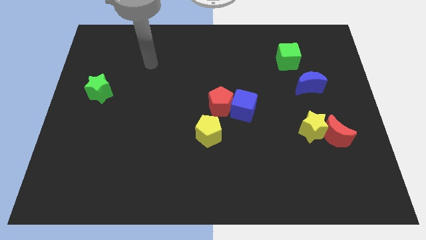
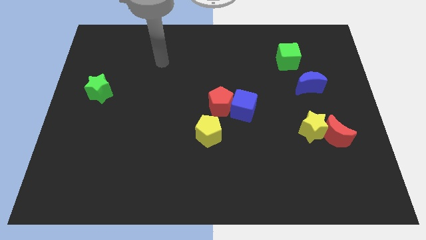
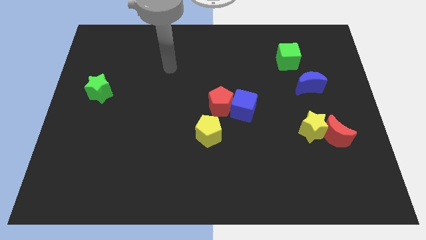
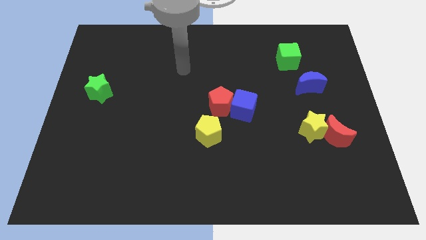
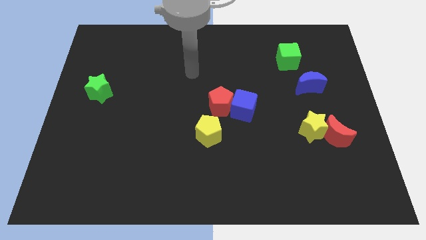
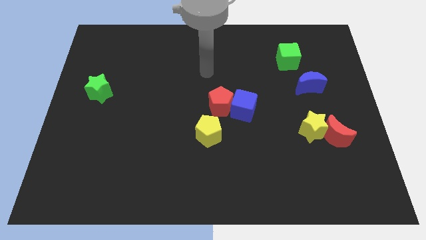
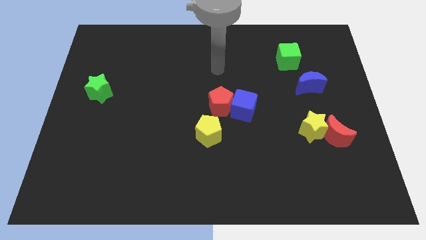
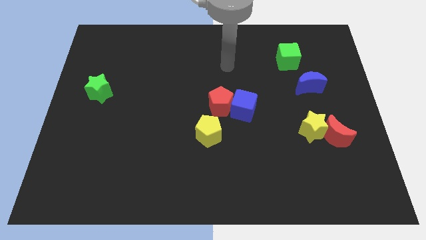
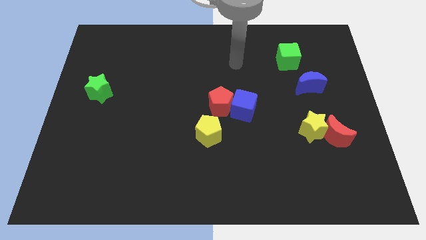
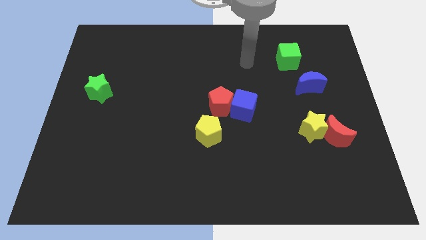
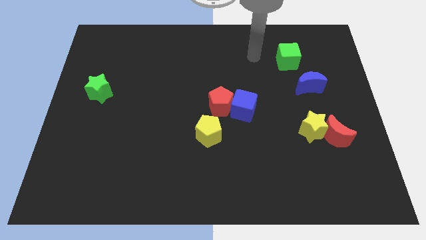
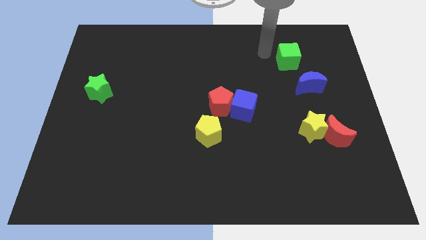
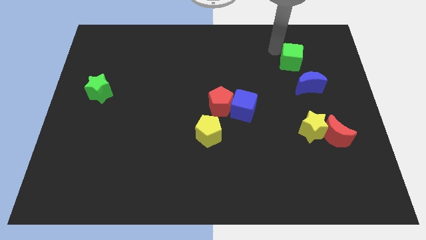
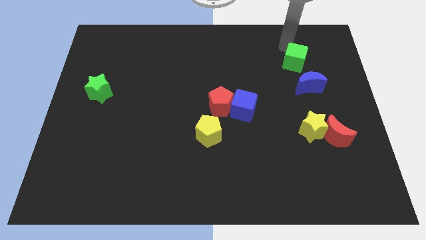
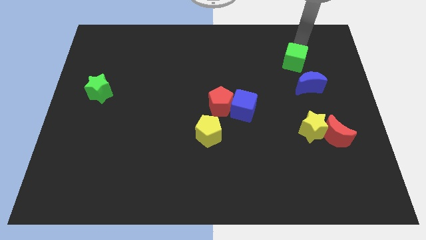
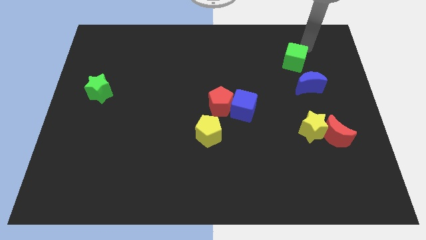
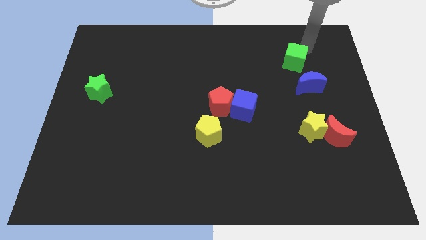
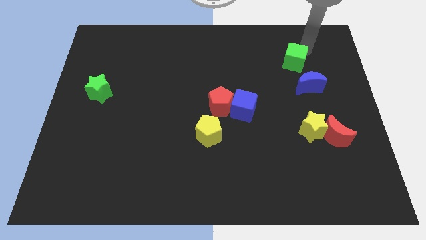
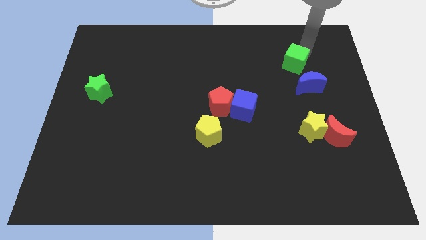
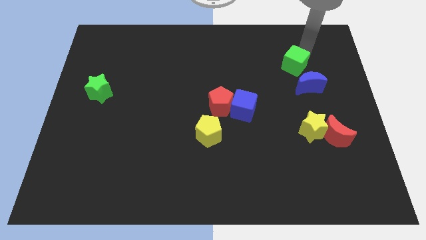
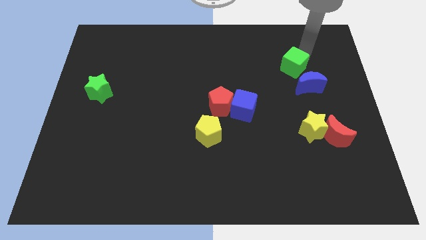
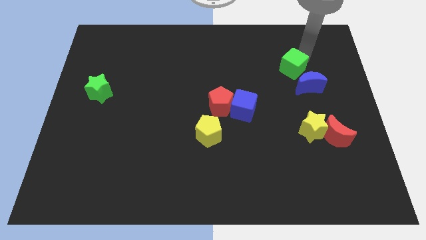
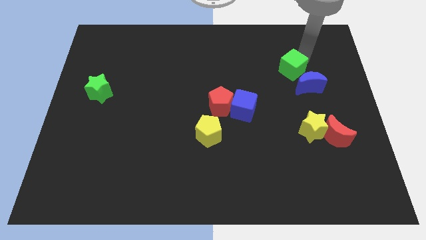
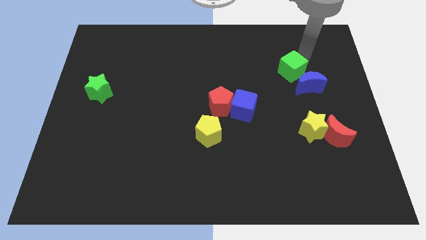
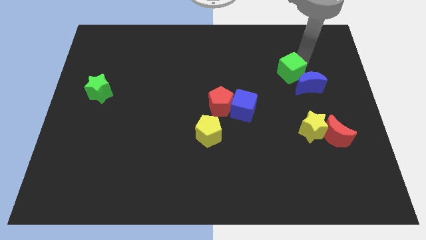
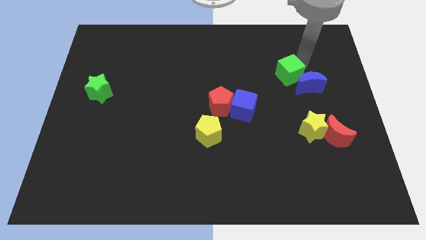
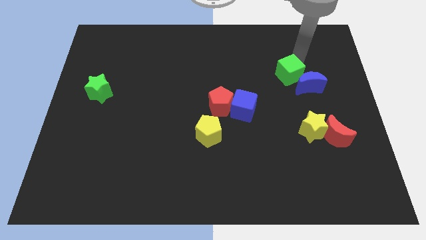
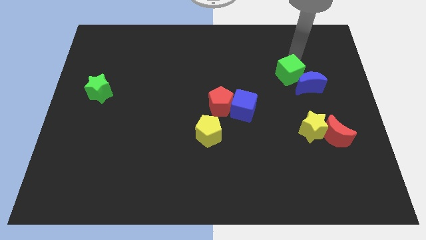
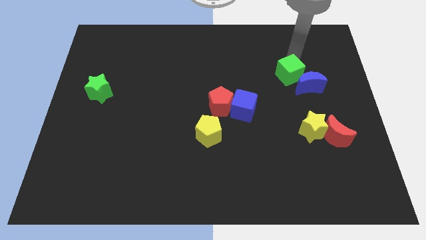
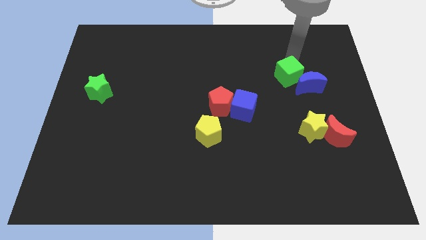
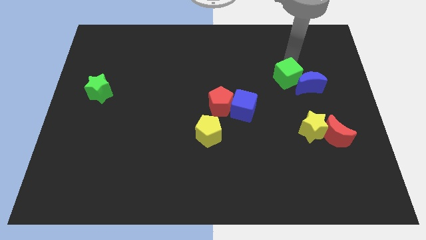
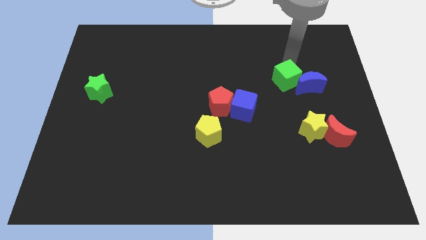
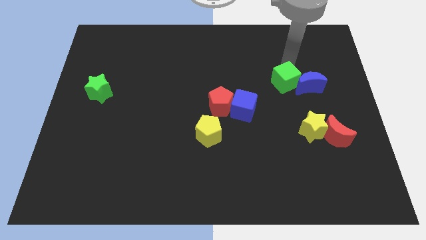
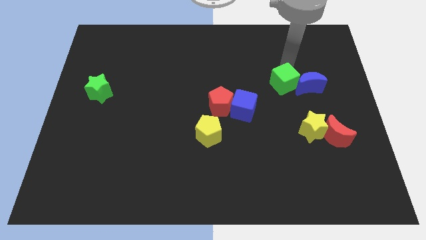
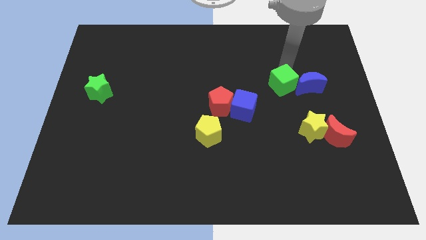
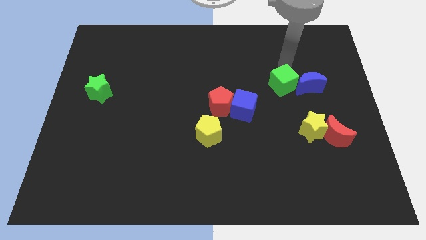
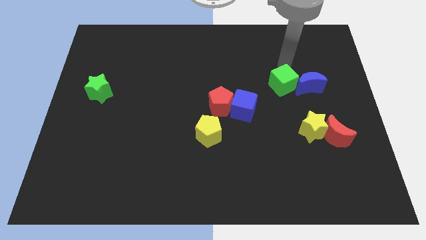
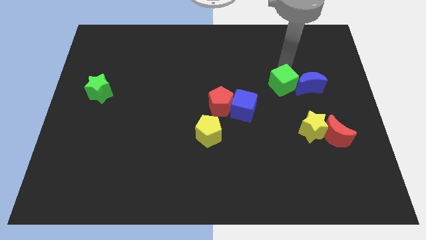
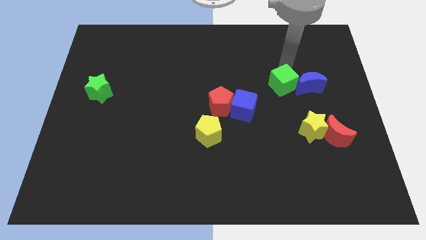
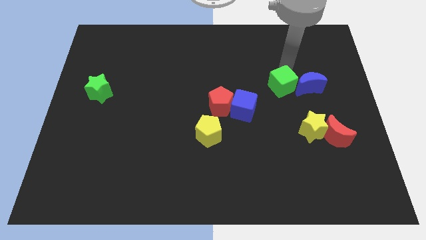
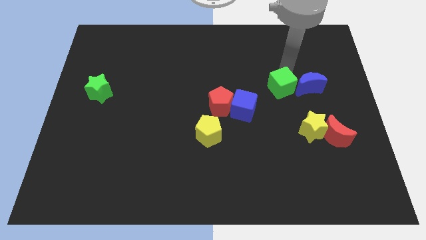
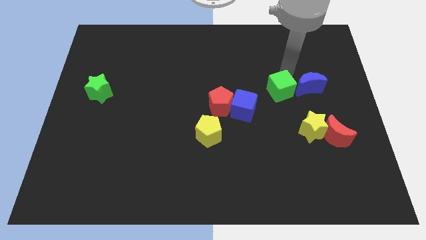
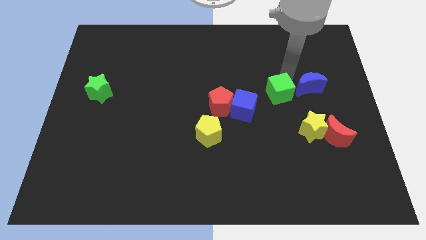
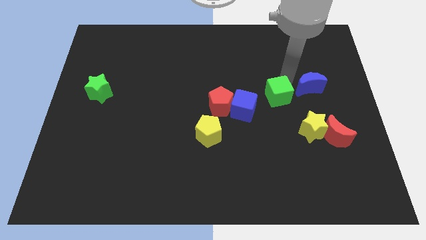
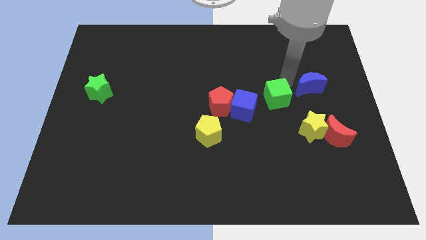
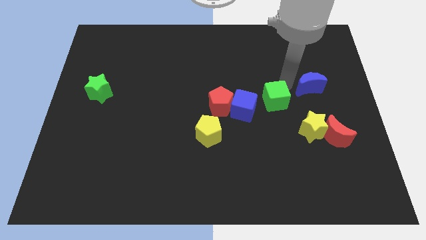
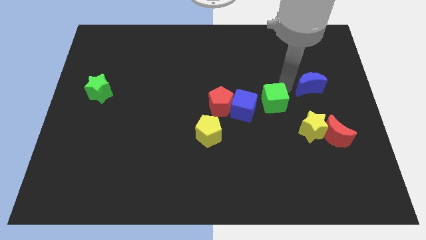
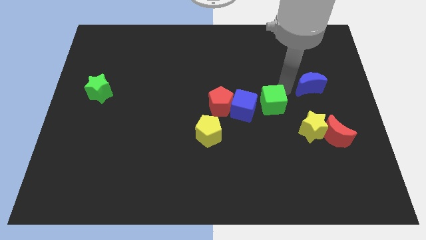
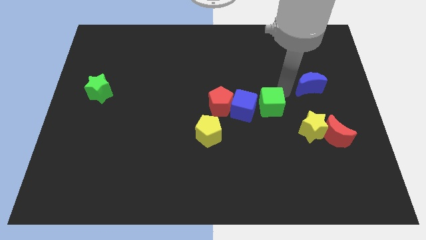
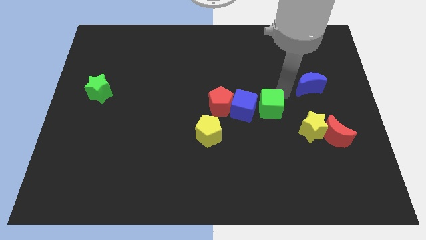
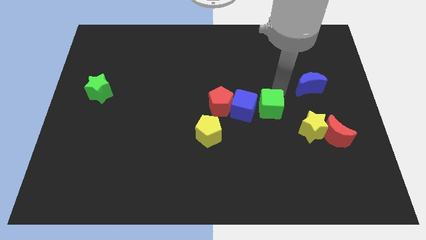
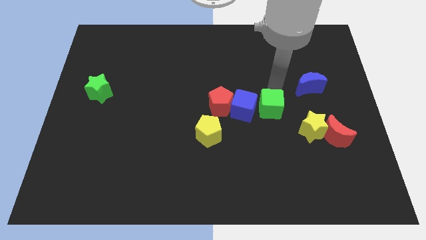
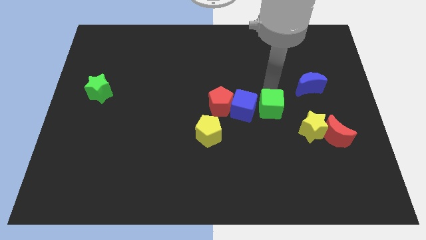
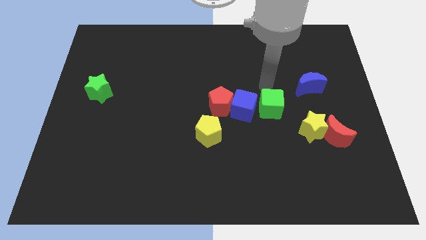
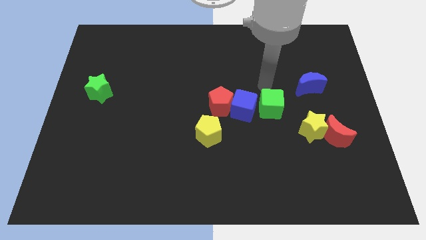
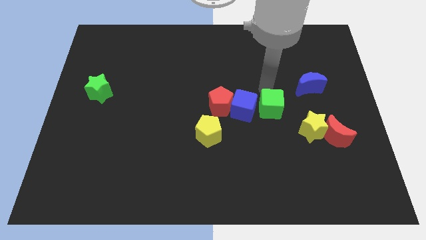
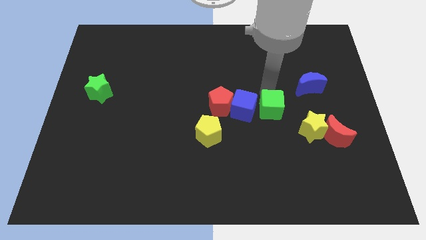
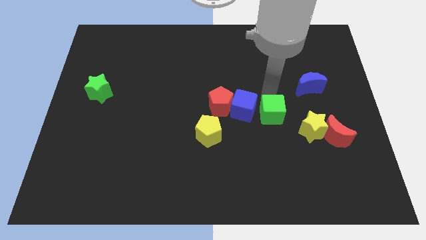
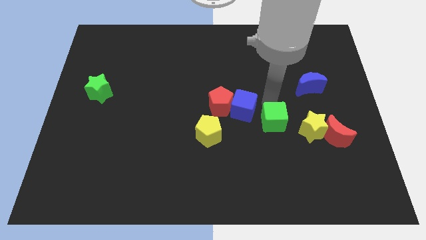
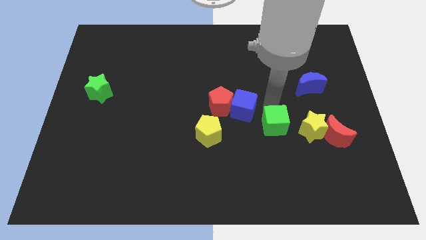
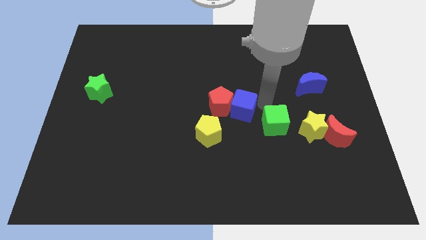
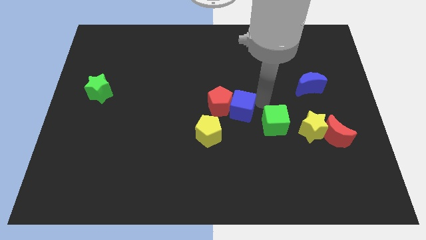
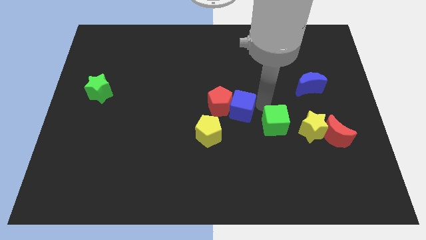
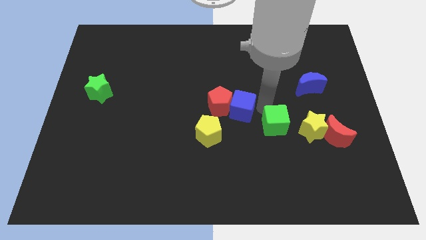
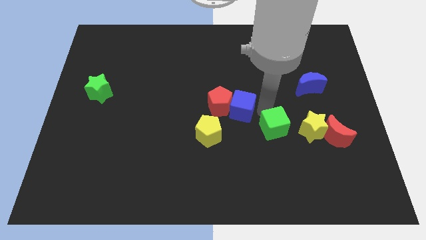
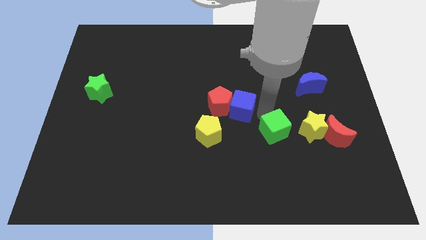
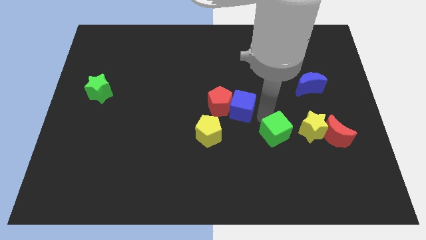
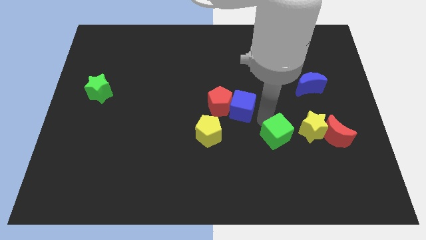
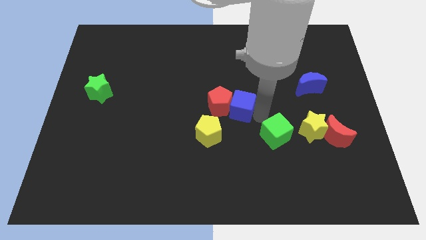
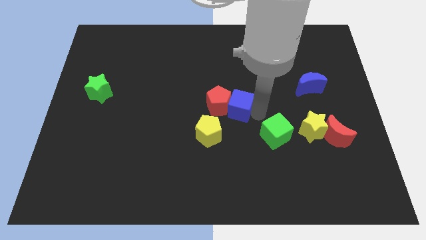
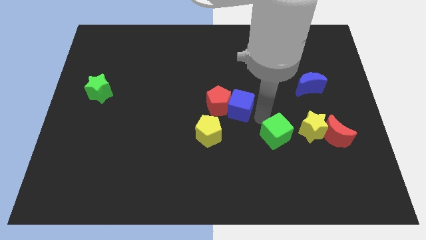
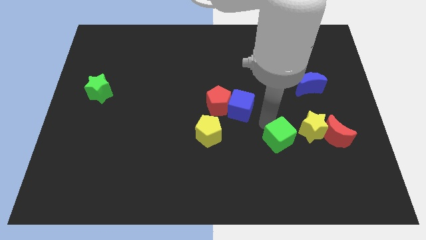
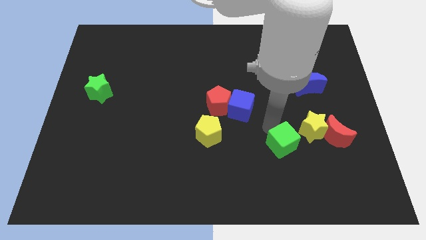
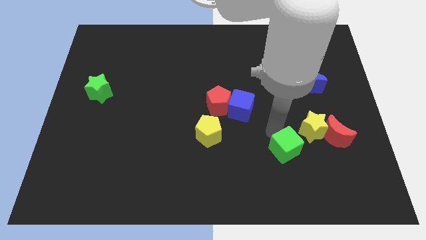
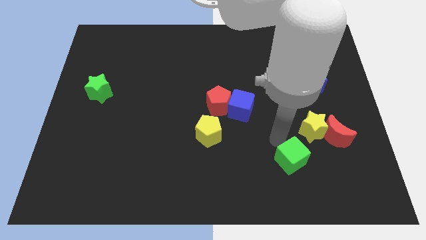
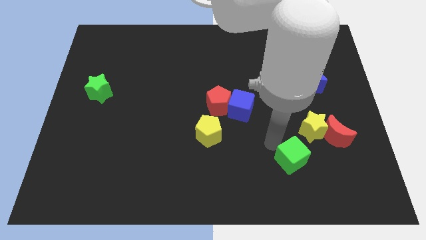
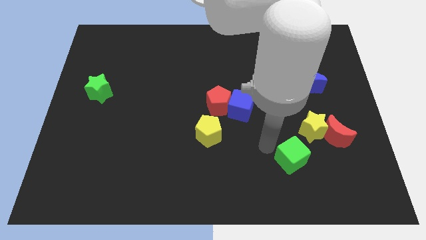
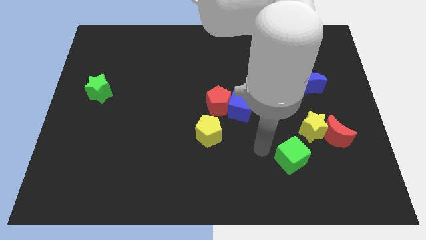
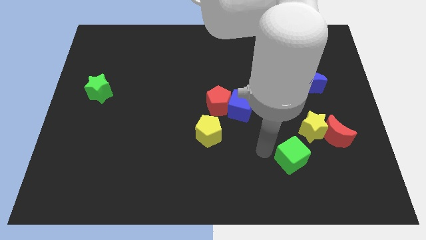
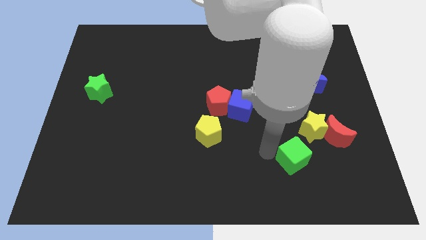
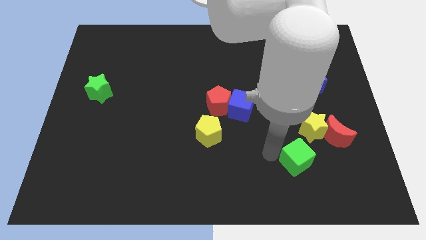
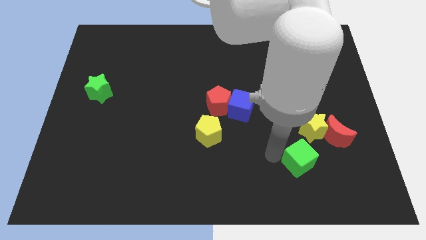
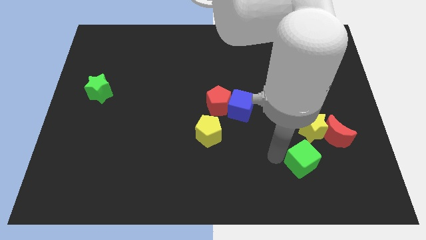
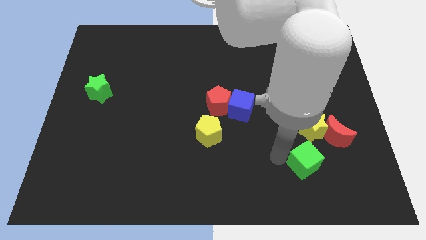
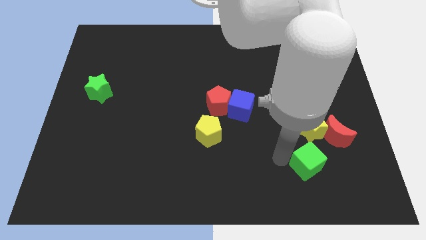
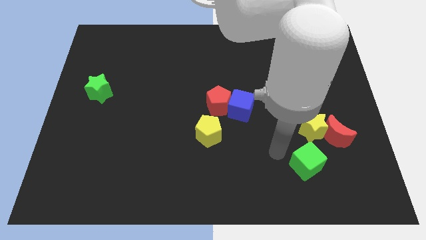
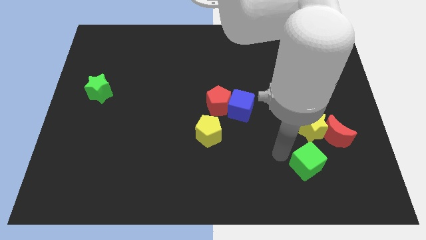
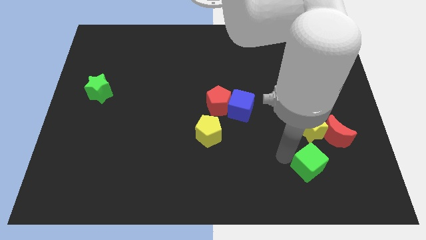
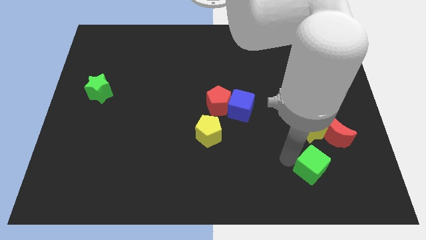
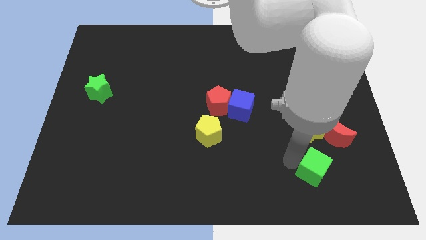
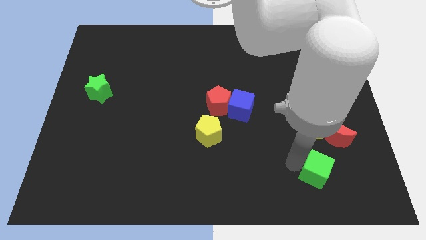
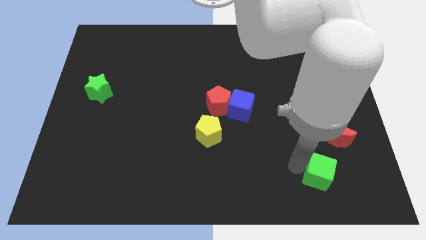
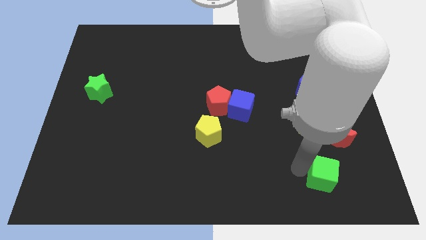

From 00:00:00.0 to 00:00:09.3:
slide the green cube below the red moon
